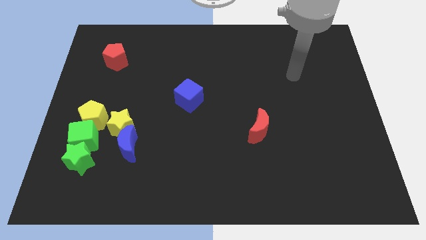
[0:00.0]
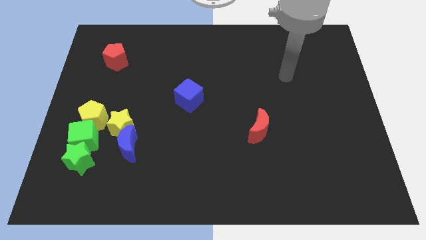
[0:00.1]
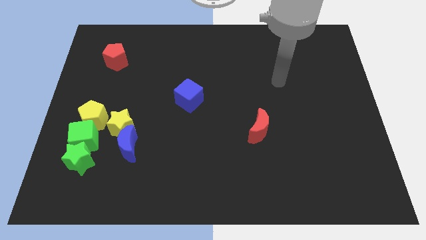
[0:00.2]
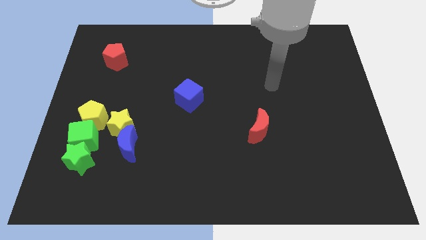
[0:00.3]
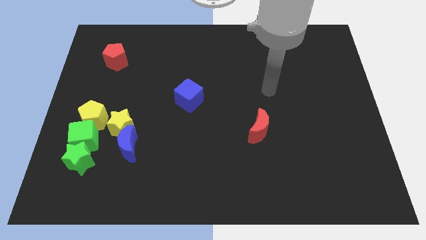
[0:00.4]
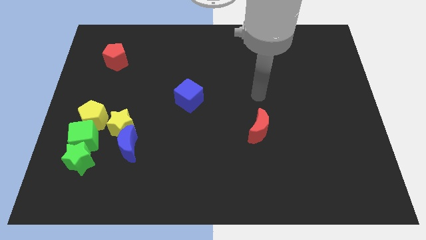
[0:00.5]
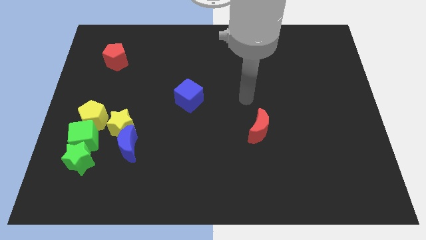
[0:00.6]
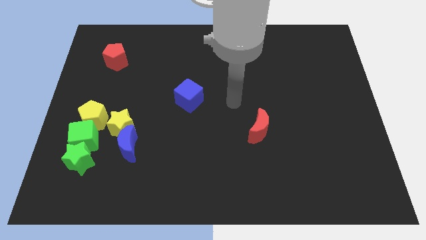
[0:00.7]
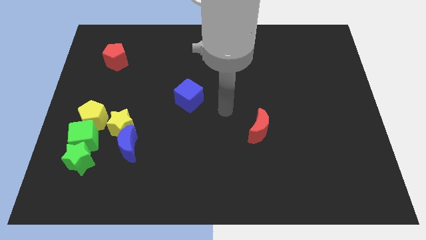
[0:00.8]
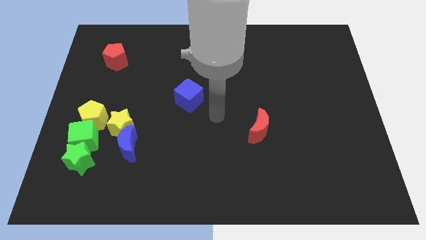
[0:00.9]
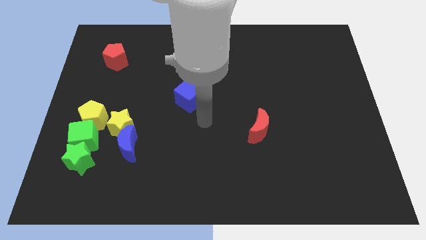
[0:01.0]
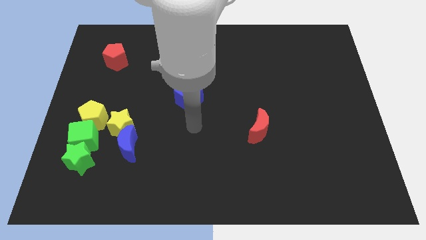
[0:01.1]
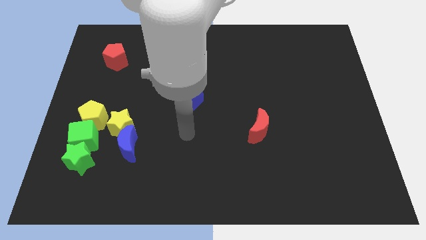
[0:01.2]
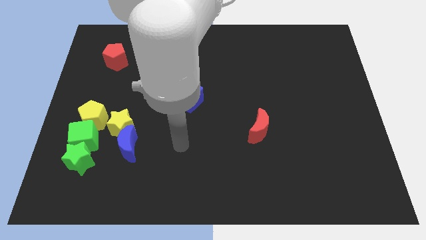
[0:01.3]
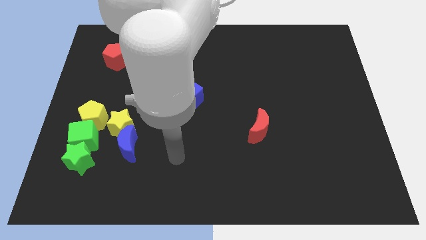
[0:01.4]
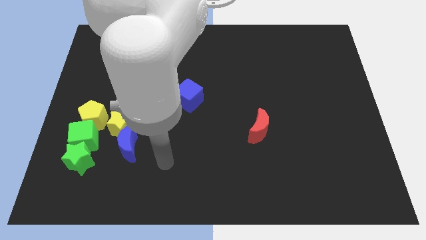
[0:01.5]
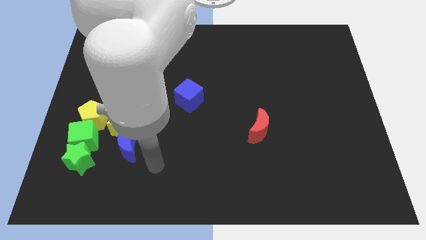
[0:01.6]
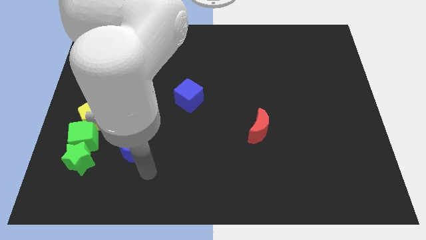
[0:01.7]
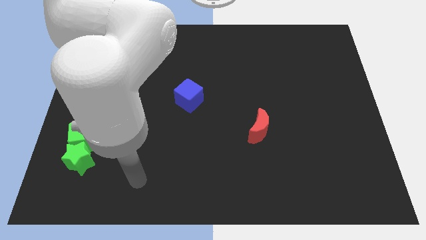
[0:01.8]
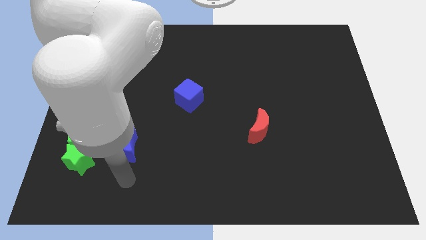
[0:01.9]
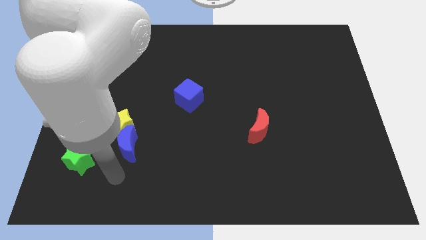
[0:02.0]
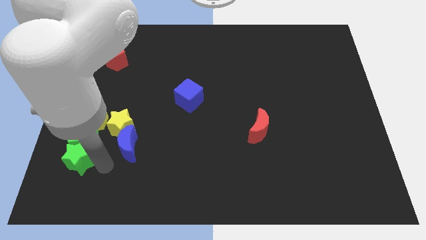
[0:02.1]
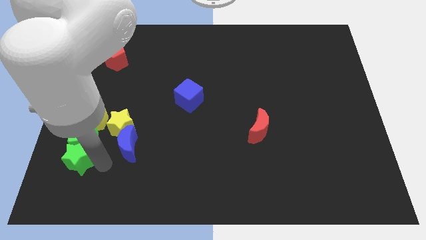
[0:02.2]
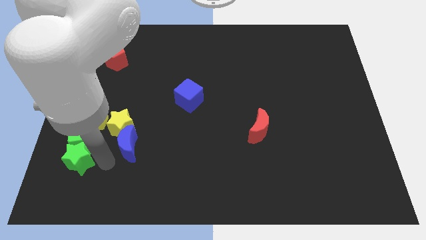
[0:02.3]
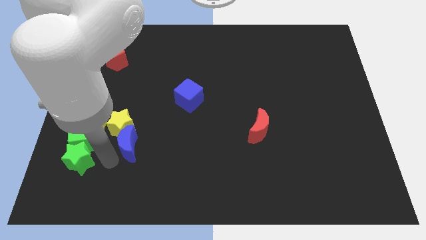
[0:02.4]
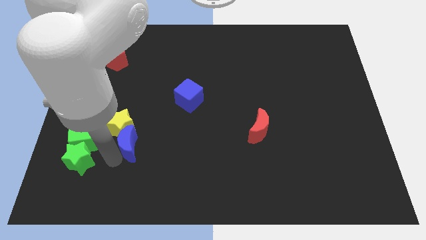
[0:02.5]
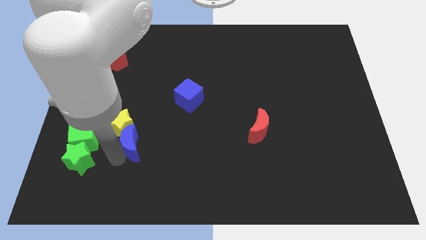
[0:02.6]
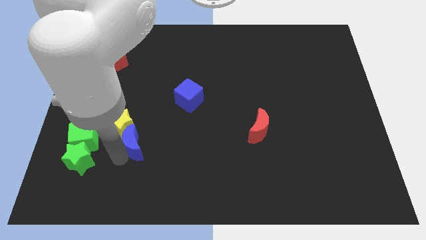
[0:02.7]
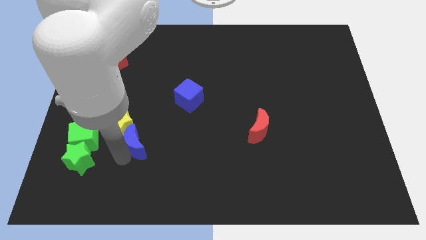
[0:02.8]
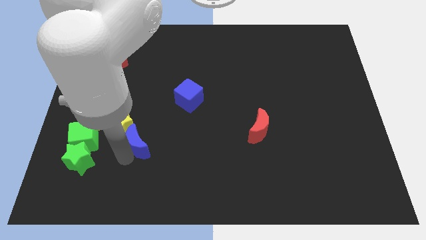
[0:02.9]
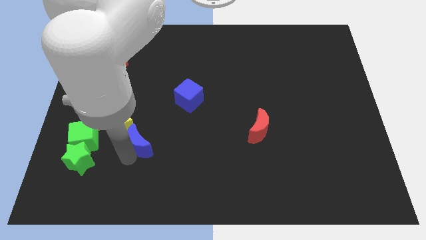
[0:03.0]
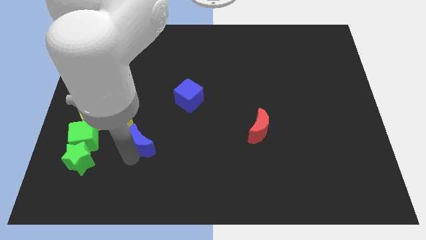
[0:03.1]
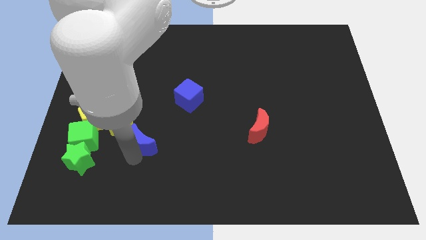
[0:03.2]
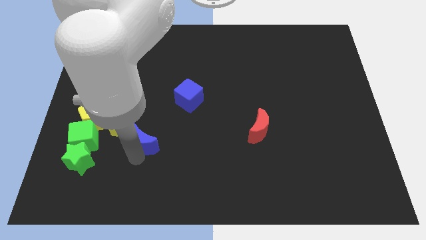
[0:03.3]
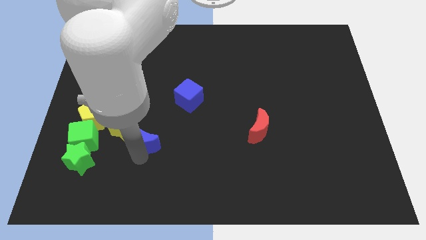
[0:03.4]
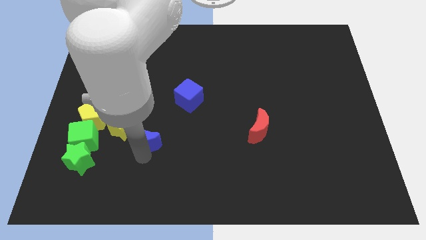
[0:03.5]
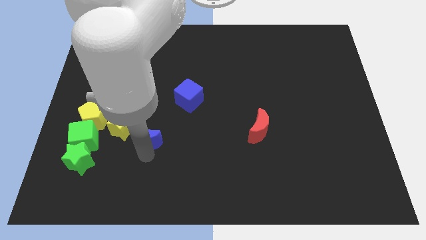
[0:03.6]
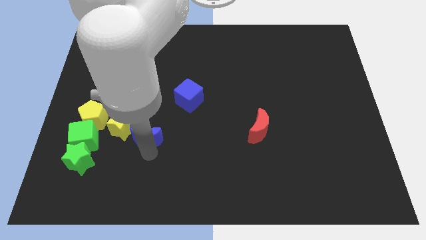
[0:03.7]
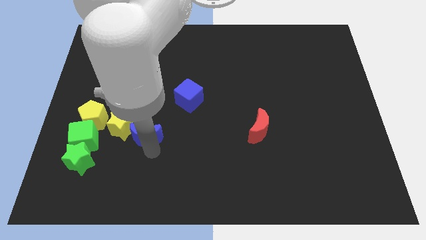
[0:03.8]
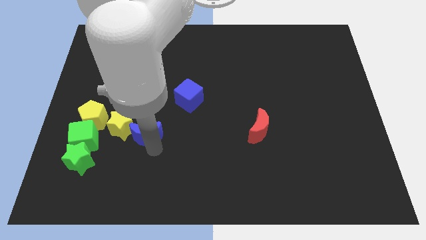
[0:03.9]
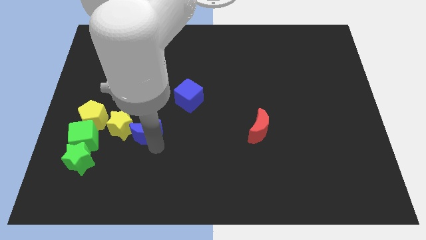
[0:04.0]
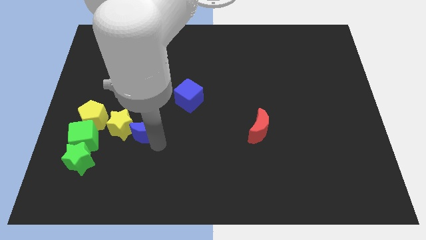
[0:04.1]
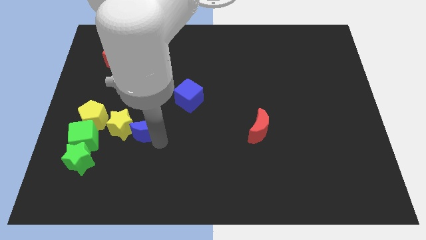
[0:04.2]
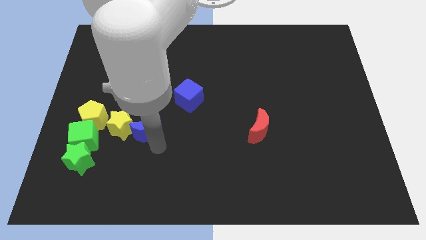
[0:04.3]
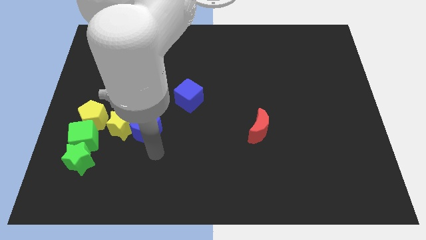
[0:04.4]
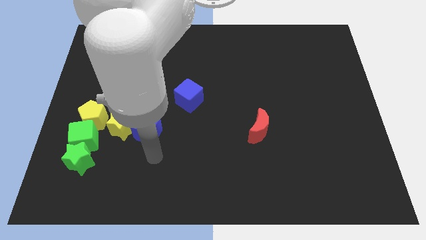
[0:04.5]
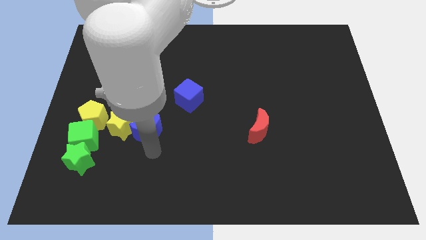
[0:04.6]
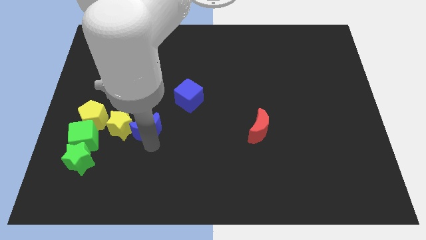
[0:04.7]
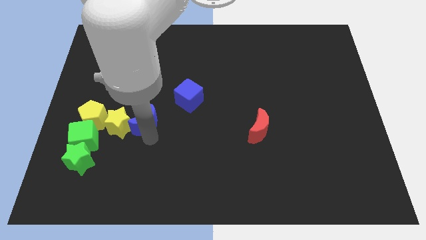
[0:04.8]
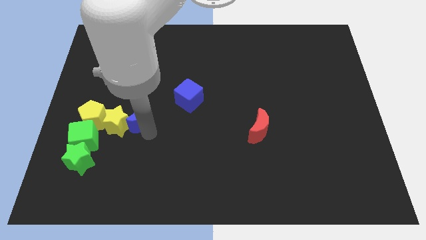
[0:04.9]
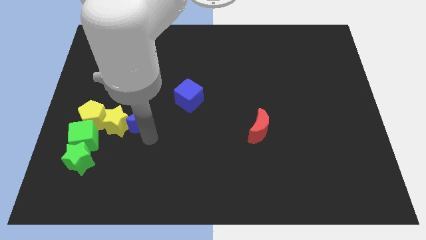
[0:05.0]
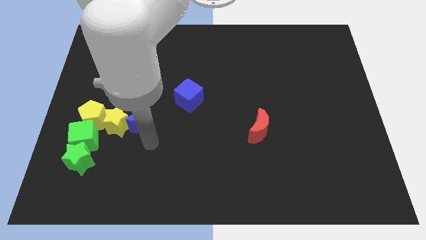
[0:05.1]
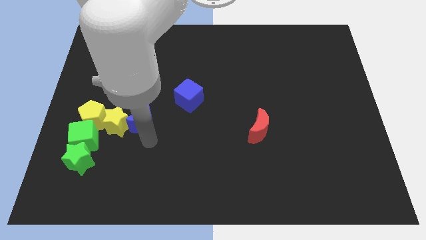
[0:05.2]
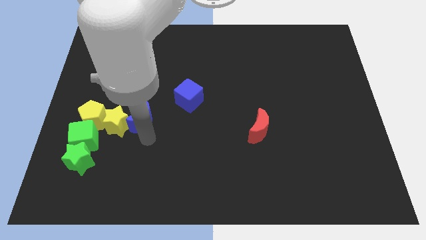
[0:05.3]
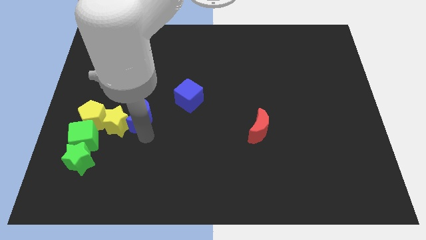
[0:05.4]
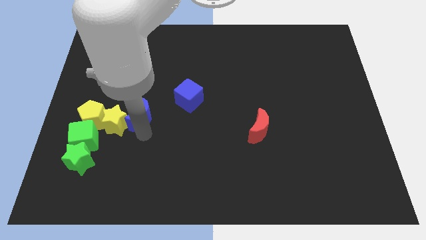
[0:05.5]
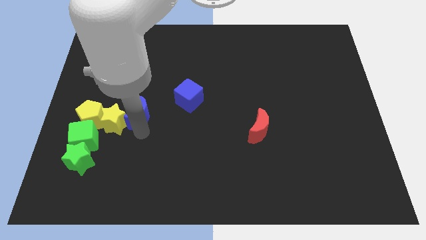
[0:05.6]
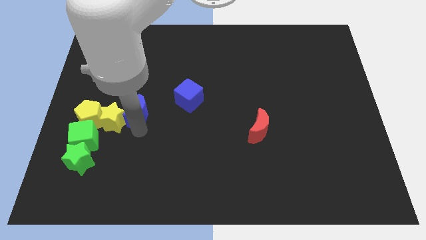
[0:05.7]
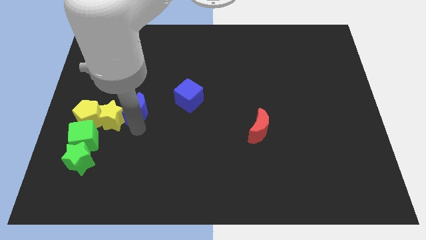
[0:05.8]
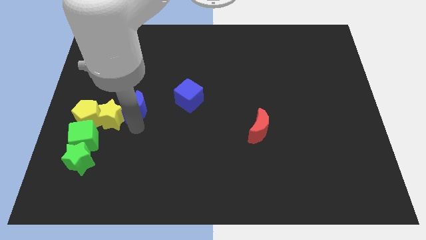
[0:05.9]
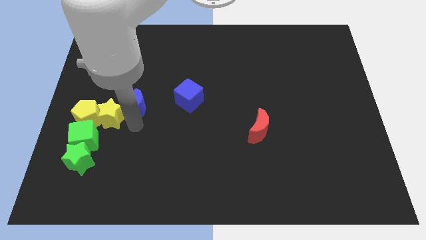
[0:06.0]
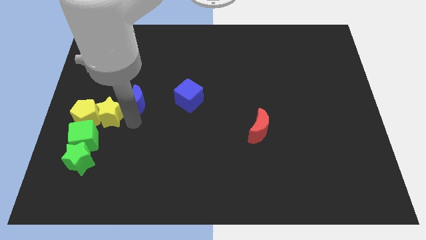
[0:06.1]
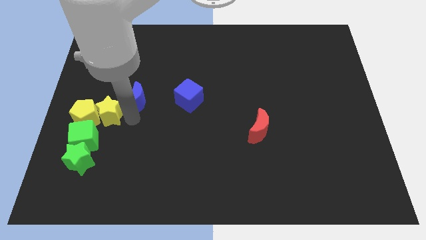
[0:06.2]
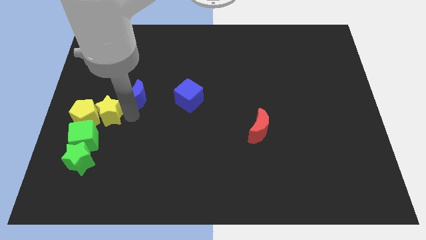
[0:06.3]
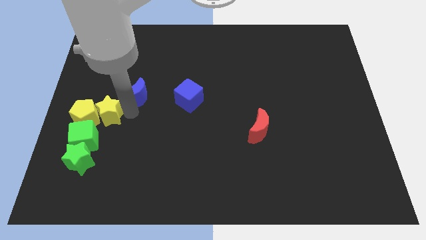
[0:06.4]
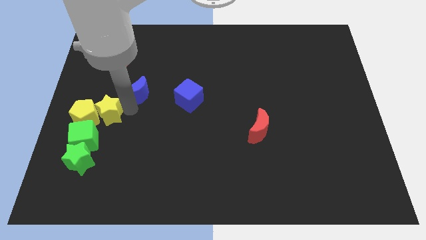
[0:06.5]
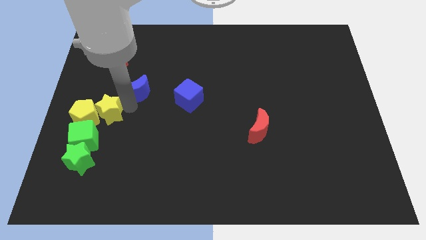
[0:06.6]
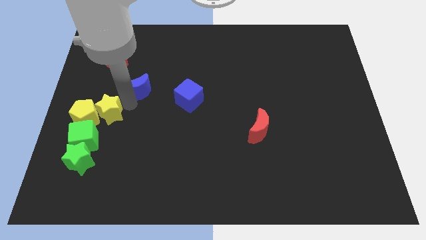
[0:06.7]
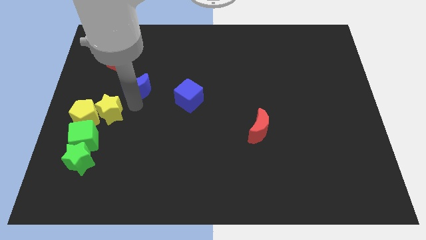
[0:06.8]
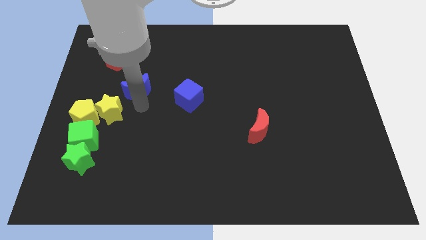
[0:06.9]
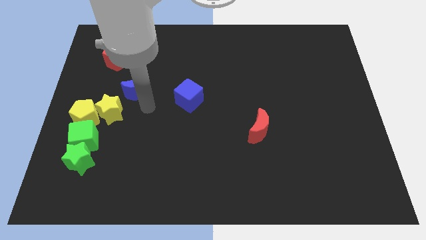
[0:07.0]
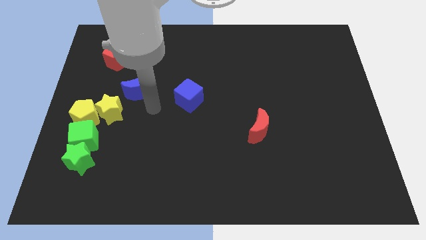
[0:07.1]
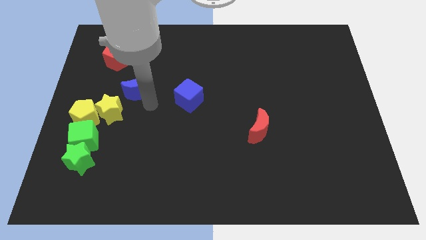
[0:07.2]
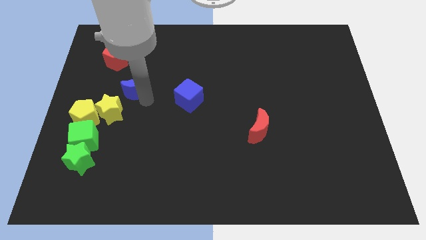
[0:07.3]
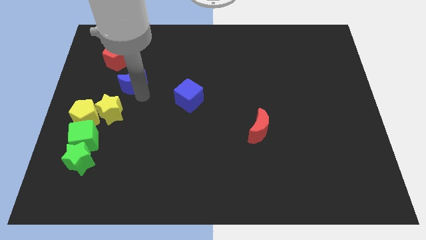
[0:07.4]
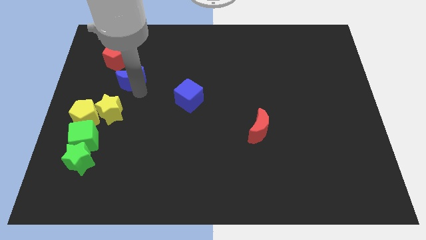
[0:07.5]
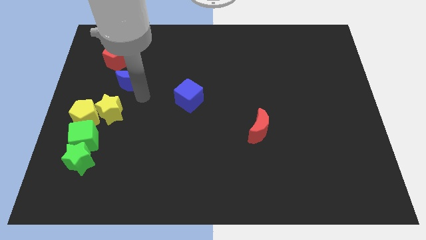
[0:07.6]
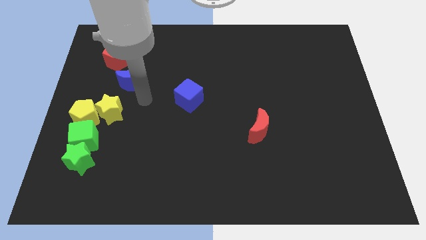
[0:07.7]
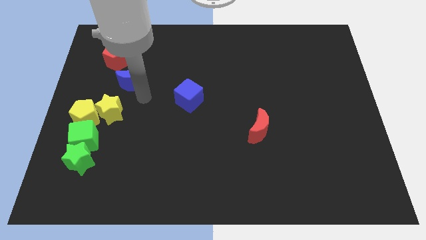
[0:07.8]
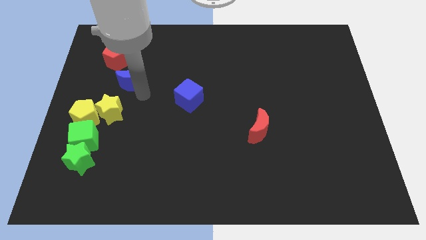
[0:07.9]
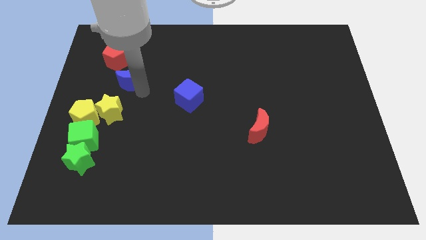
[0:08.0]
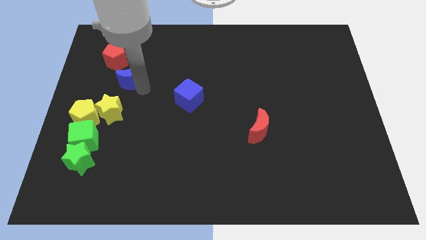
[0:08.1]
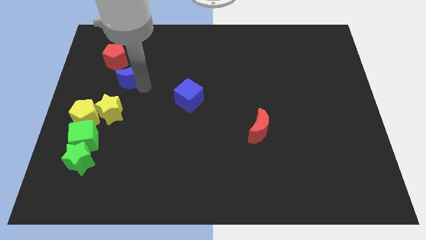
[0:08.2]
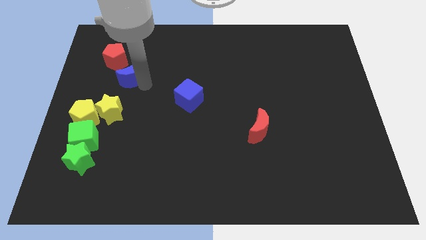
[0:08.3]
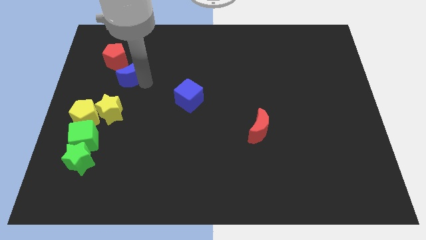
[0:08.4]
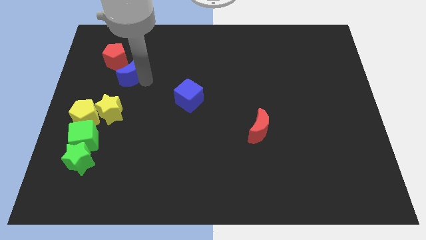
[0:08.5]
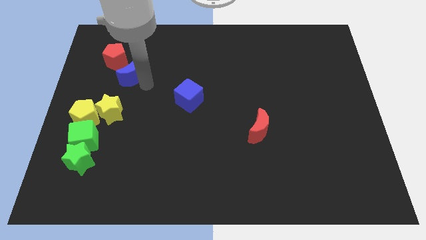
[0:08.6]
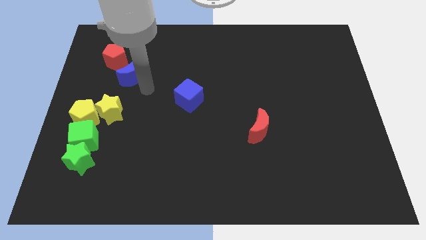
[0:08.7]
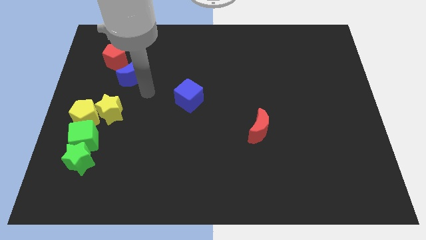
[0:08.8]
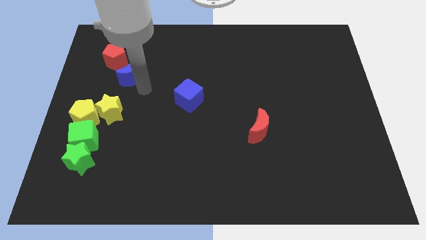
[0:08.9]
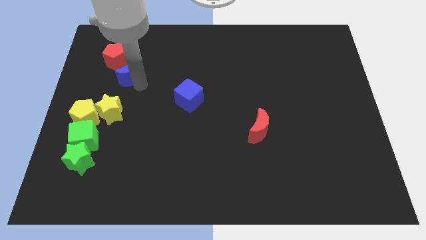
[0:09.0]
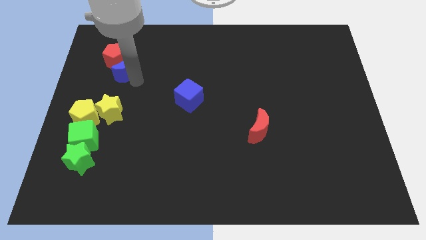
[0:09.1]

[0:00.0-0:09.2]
slide the blue moon next to the red pentagon
